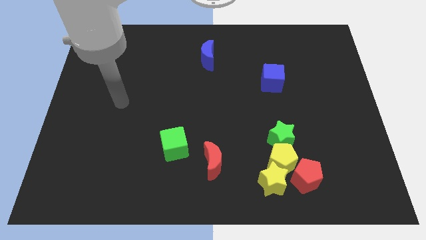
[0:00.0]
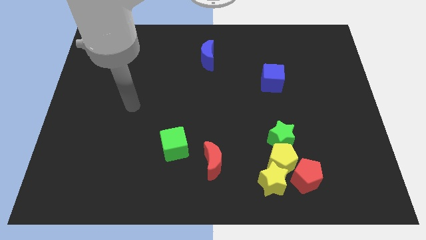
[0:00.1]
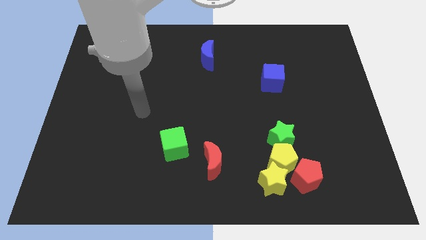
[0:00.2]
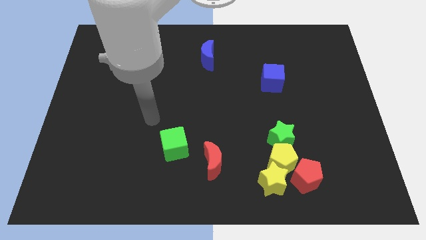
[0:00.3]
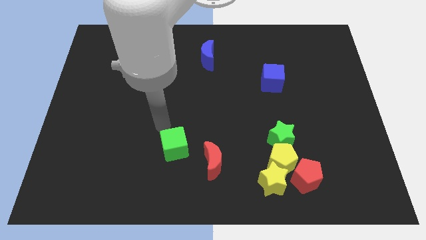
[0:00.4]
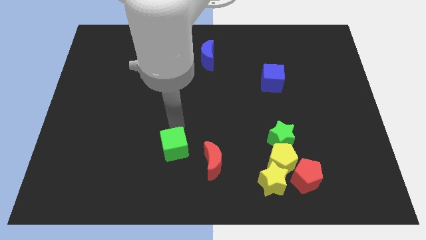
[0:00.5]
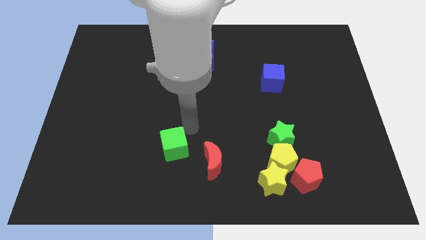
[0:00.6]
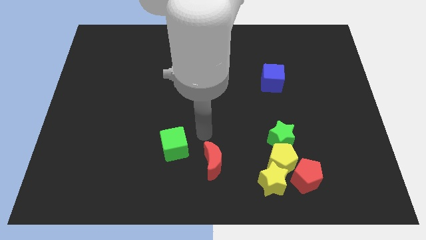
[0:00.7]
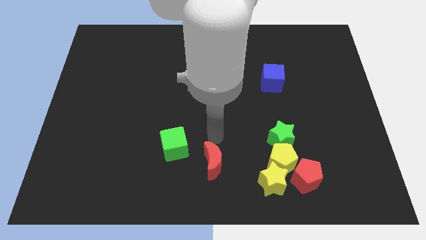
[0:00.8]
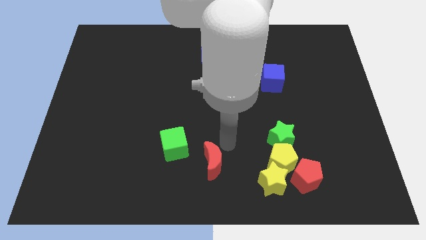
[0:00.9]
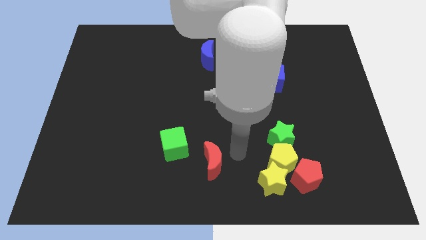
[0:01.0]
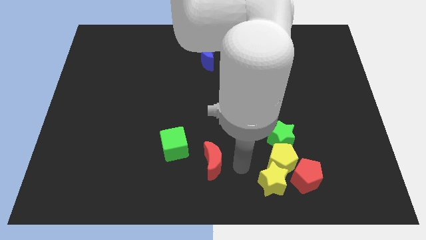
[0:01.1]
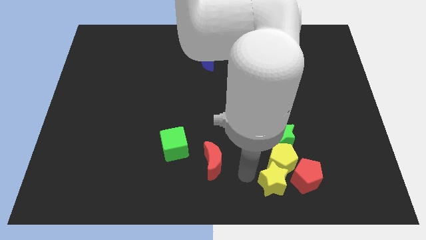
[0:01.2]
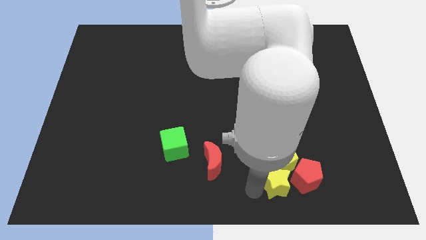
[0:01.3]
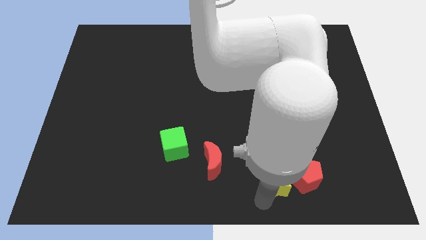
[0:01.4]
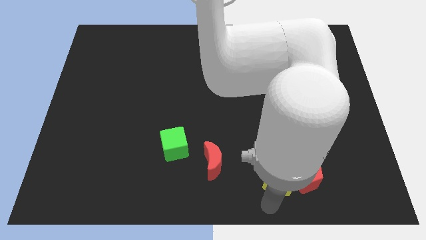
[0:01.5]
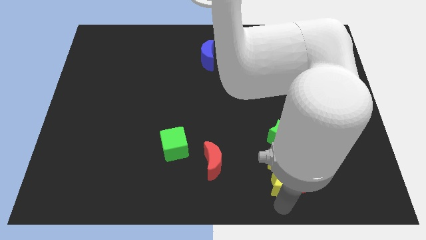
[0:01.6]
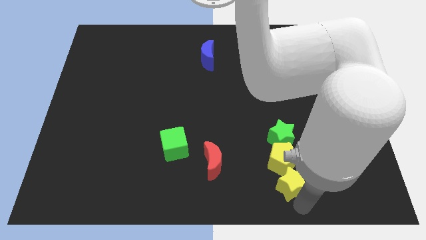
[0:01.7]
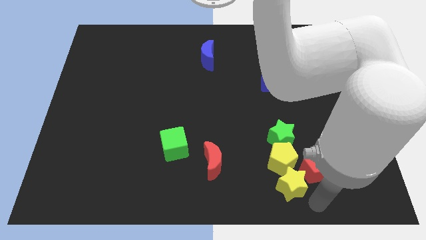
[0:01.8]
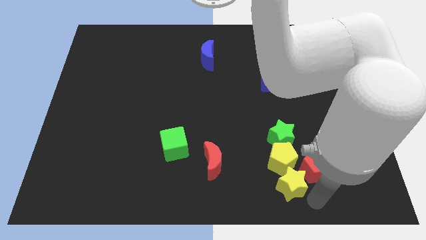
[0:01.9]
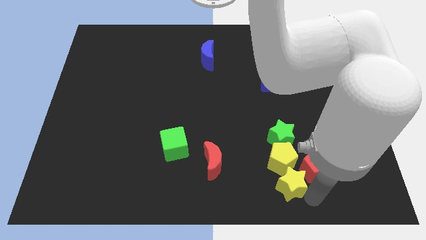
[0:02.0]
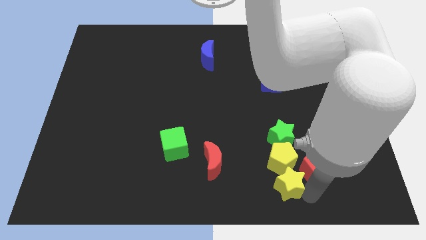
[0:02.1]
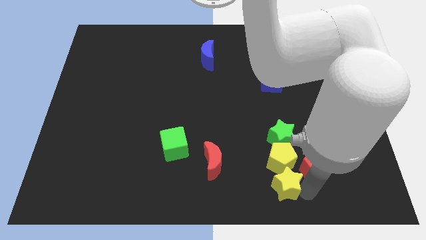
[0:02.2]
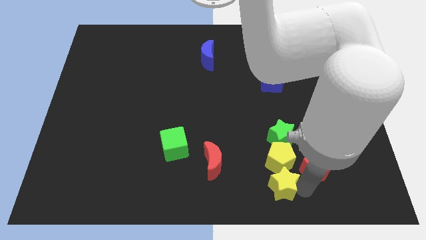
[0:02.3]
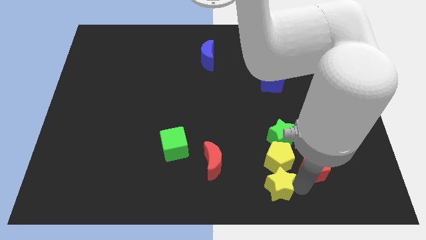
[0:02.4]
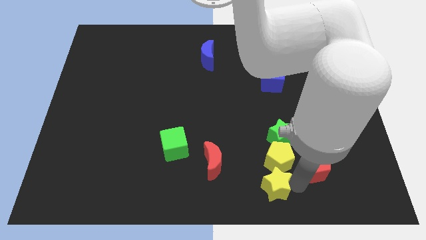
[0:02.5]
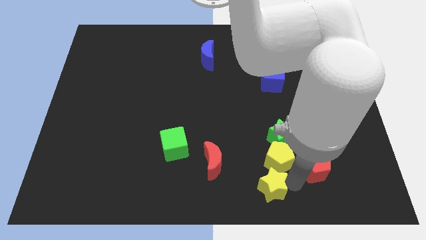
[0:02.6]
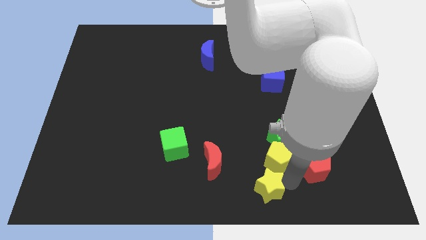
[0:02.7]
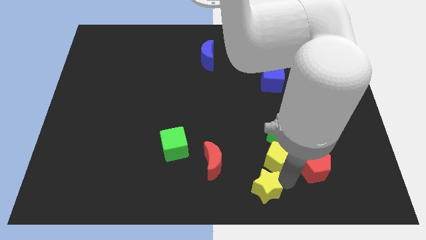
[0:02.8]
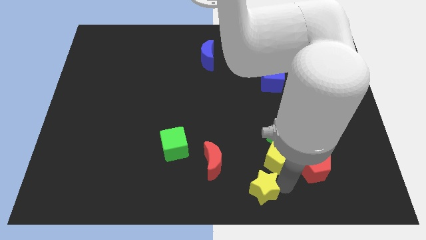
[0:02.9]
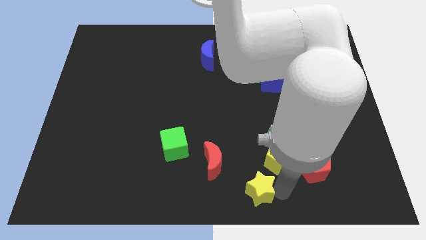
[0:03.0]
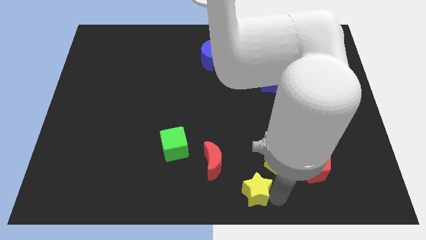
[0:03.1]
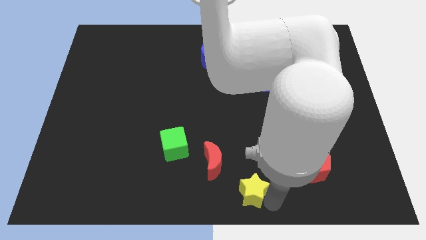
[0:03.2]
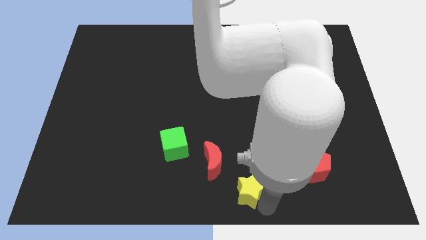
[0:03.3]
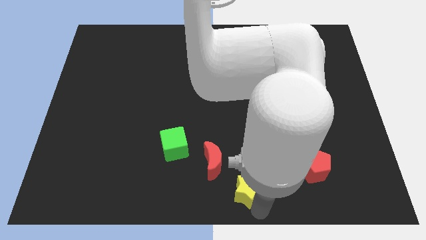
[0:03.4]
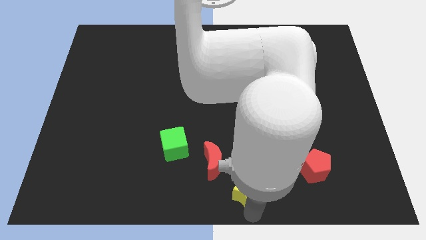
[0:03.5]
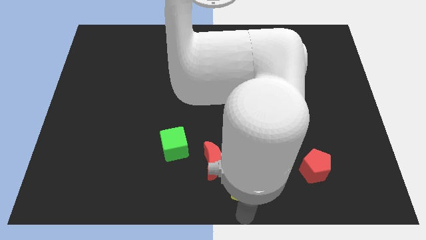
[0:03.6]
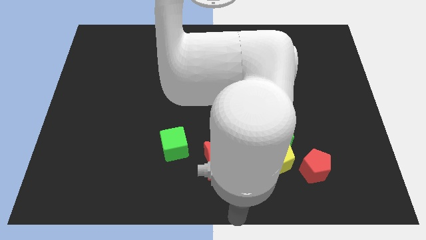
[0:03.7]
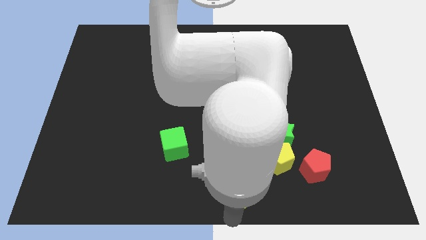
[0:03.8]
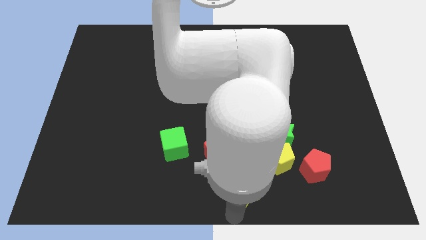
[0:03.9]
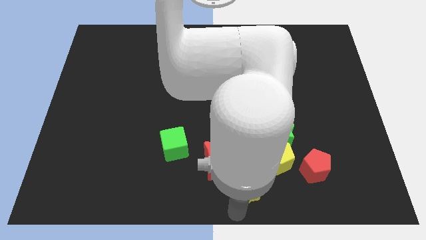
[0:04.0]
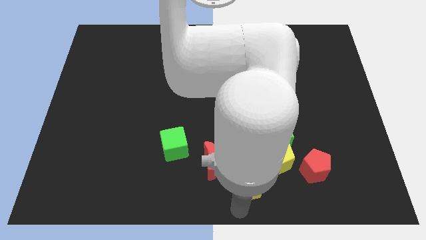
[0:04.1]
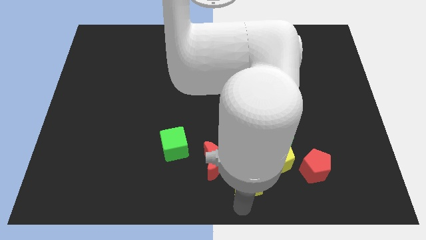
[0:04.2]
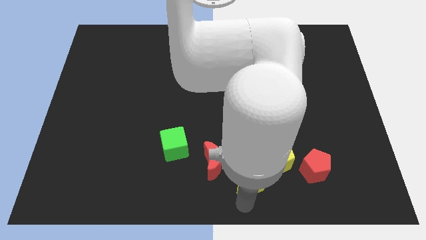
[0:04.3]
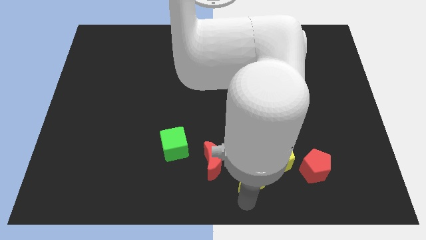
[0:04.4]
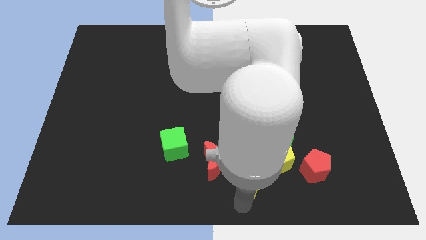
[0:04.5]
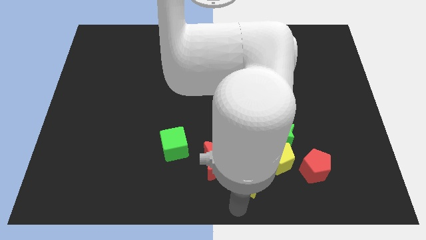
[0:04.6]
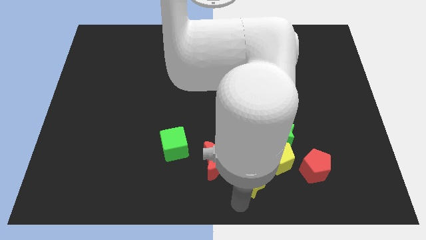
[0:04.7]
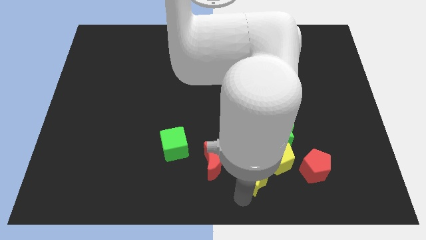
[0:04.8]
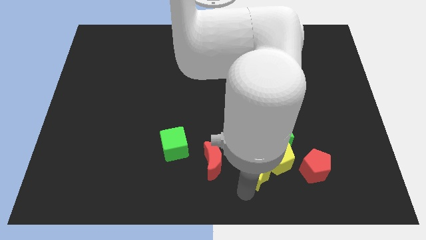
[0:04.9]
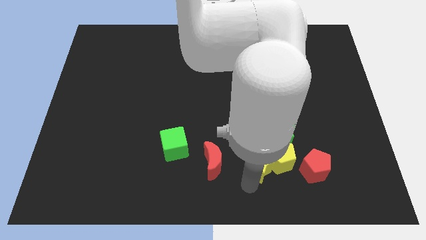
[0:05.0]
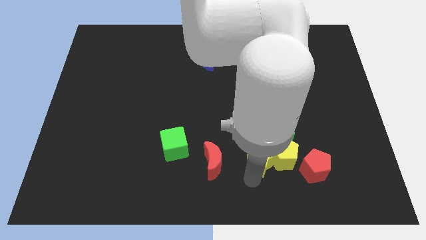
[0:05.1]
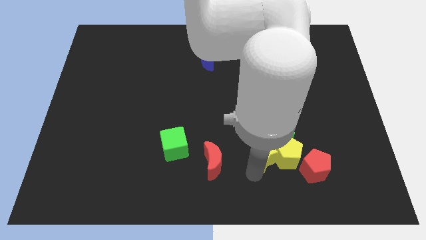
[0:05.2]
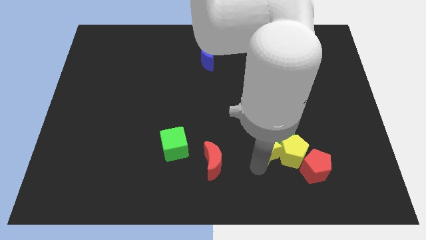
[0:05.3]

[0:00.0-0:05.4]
push the yellow star a bit up

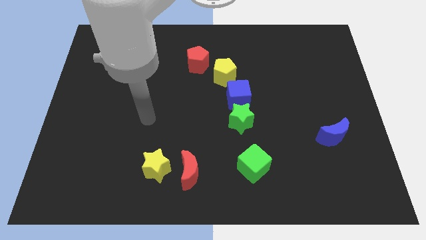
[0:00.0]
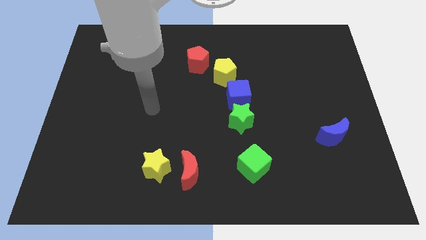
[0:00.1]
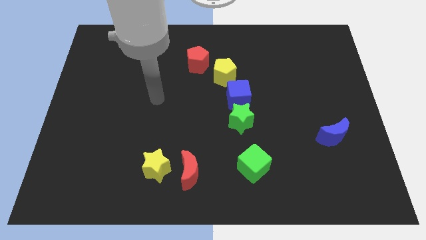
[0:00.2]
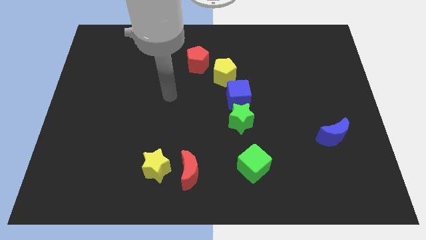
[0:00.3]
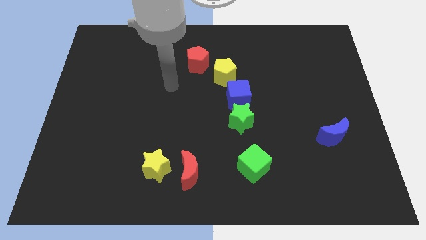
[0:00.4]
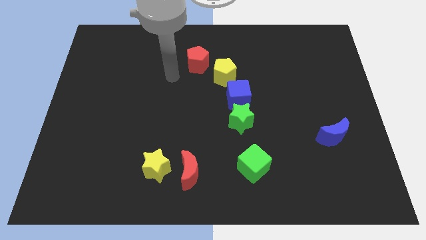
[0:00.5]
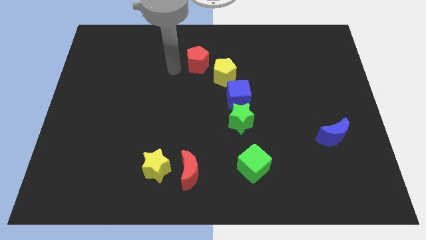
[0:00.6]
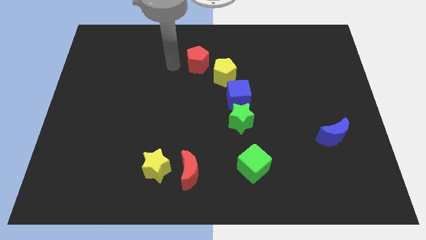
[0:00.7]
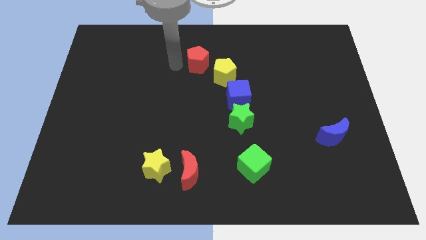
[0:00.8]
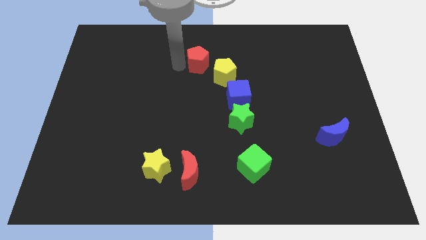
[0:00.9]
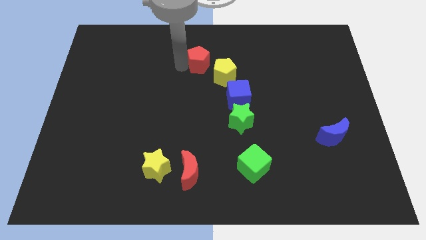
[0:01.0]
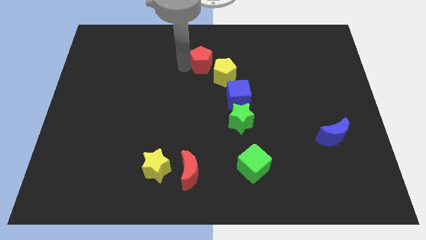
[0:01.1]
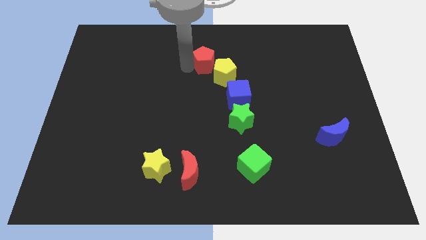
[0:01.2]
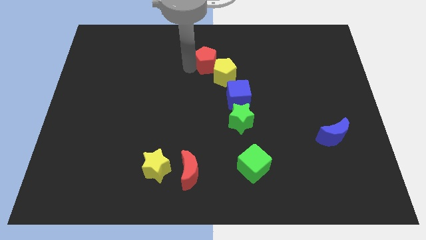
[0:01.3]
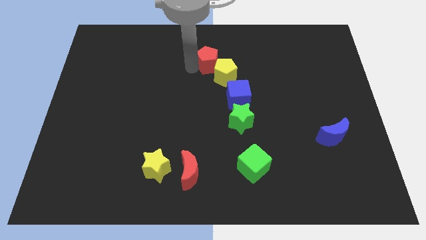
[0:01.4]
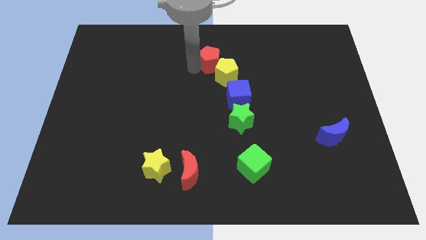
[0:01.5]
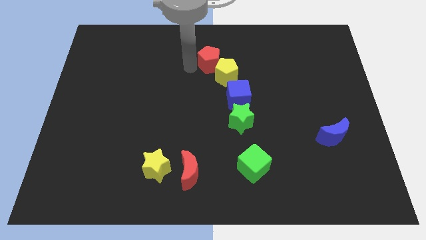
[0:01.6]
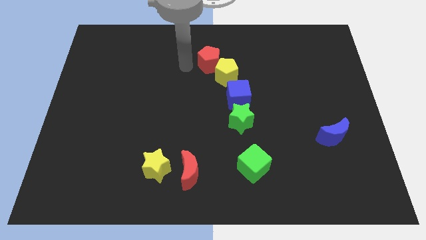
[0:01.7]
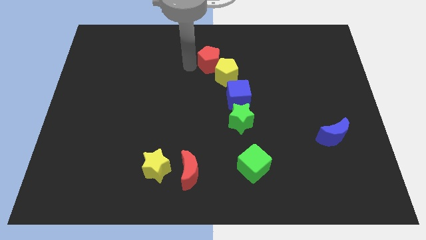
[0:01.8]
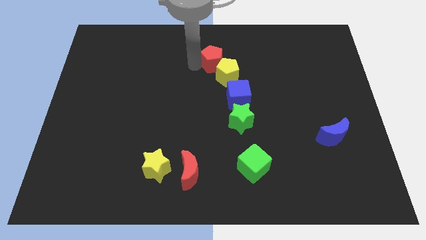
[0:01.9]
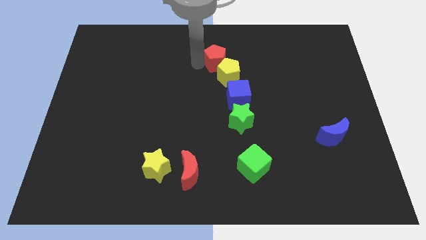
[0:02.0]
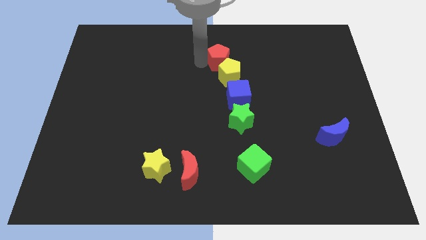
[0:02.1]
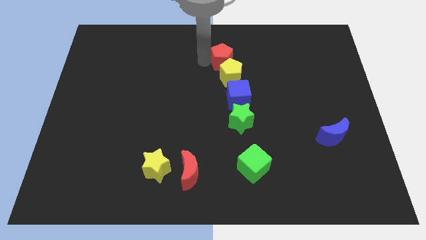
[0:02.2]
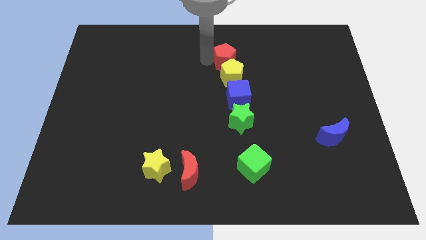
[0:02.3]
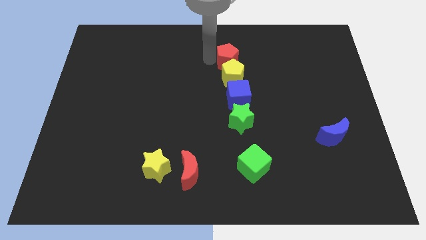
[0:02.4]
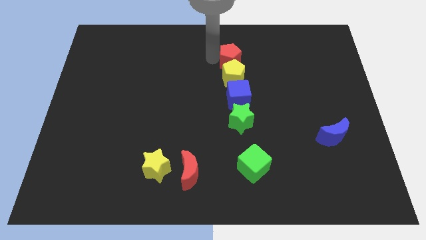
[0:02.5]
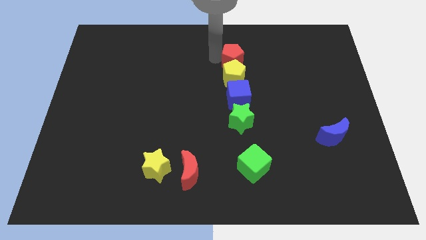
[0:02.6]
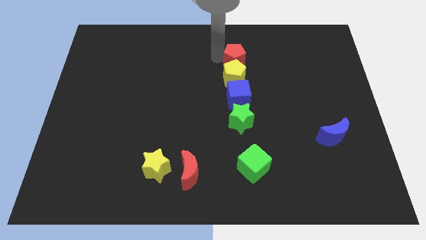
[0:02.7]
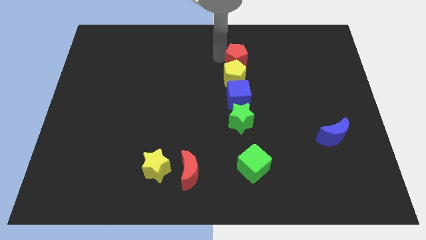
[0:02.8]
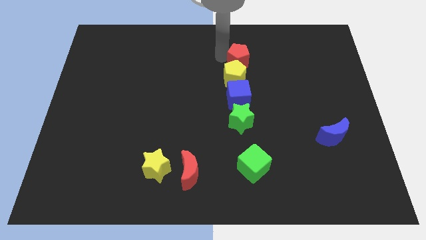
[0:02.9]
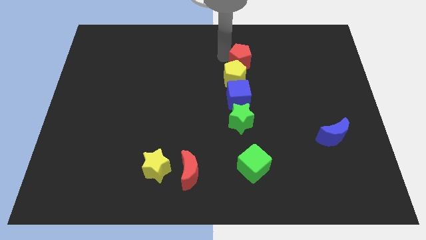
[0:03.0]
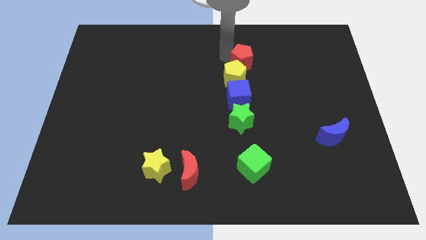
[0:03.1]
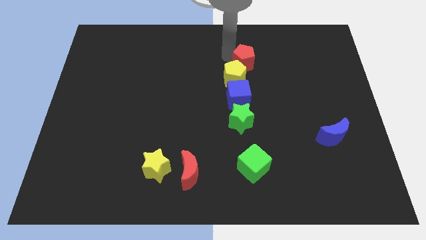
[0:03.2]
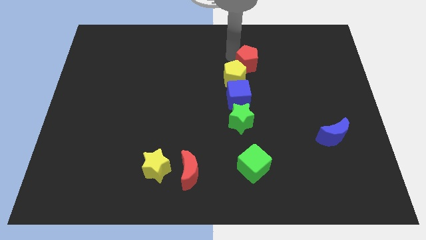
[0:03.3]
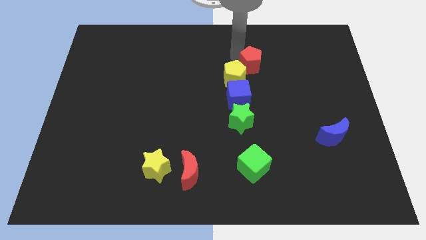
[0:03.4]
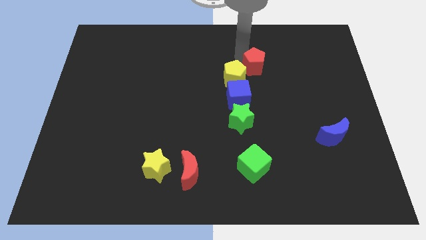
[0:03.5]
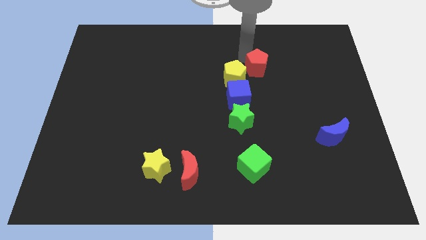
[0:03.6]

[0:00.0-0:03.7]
move the red pentagon downwards and to the right diagonally a bit
